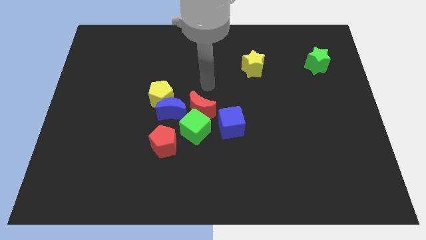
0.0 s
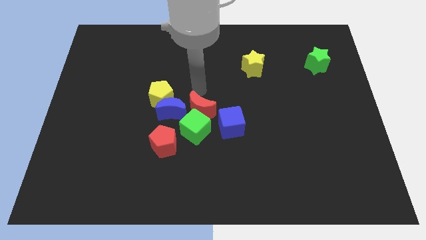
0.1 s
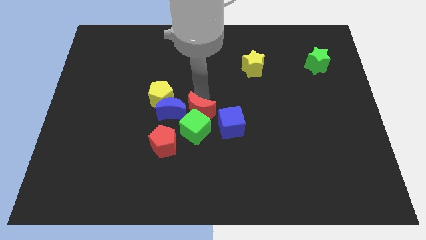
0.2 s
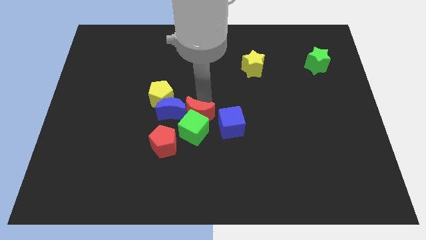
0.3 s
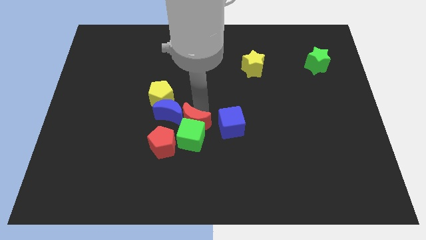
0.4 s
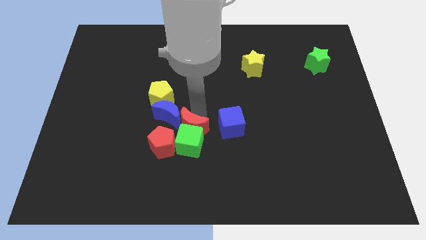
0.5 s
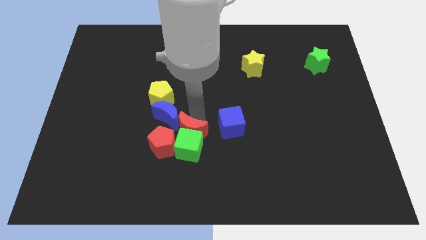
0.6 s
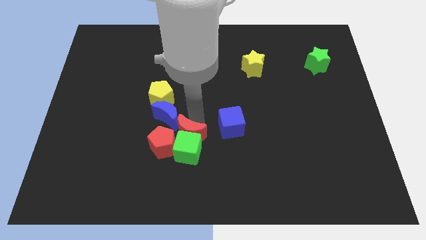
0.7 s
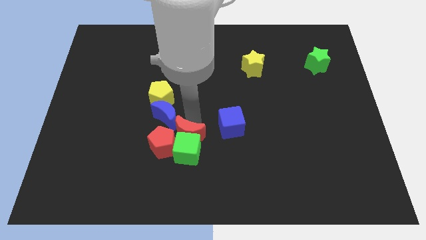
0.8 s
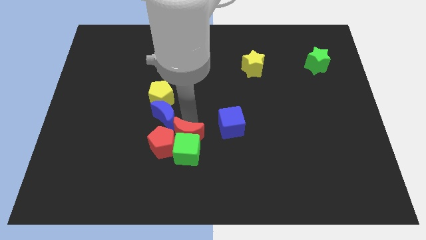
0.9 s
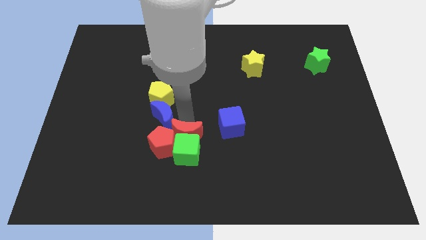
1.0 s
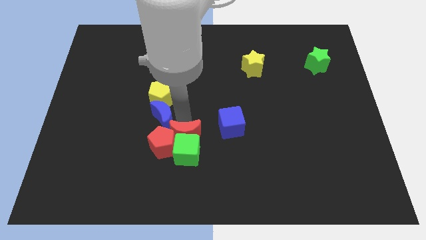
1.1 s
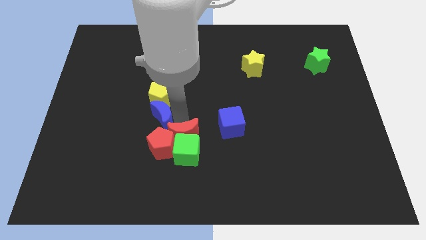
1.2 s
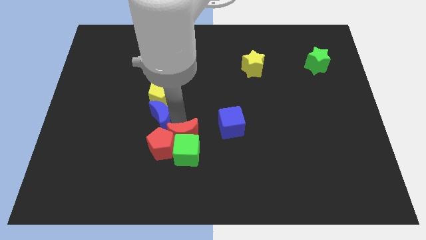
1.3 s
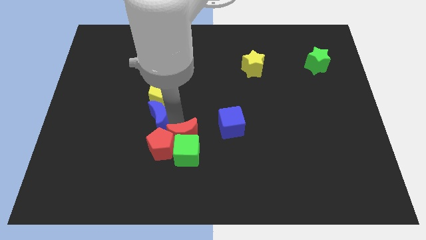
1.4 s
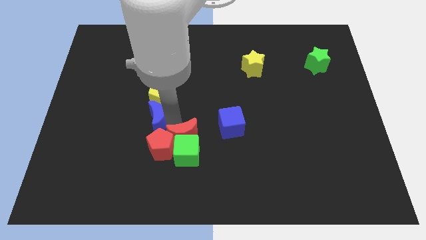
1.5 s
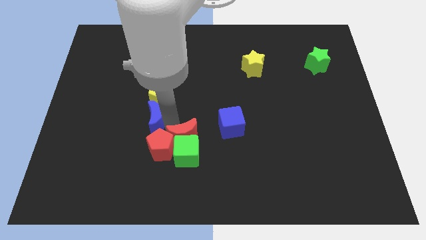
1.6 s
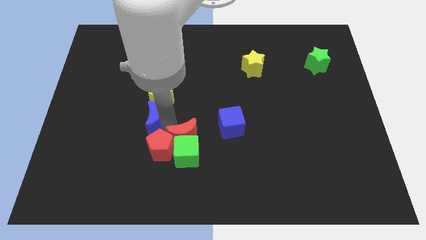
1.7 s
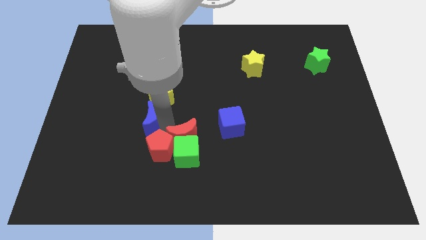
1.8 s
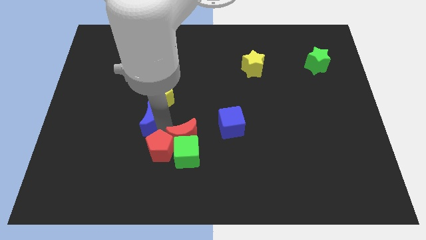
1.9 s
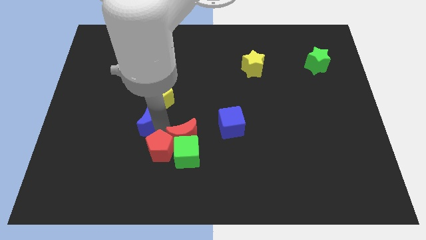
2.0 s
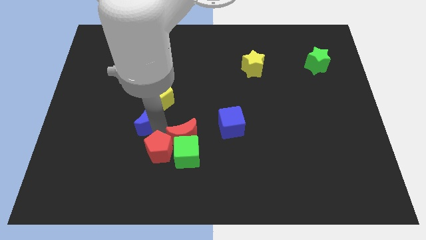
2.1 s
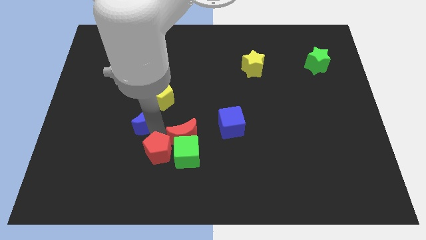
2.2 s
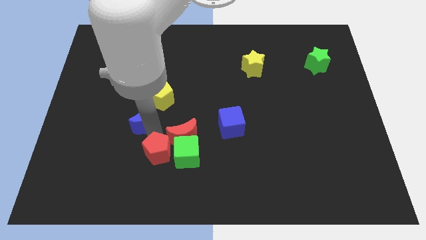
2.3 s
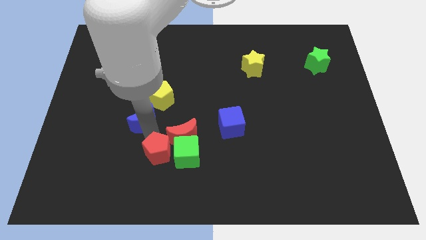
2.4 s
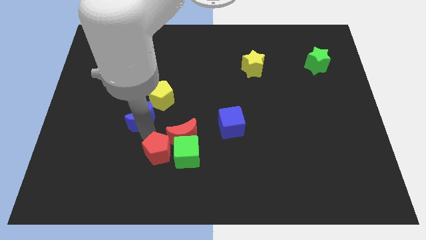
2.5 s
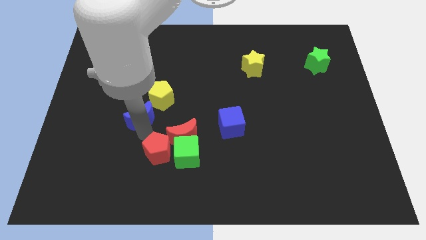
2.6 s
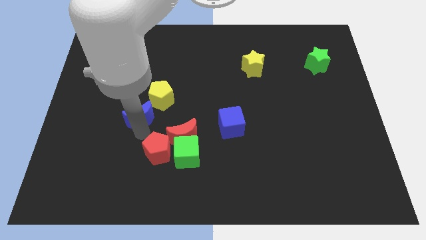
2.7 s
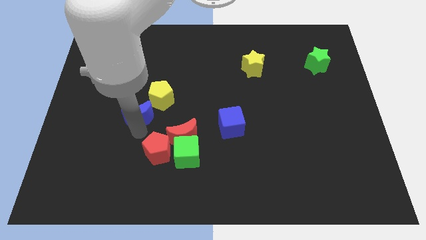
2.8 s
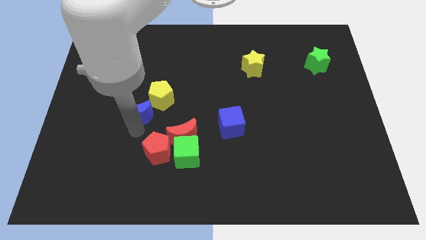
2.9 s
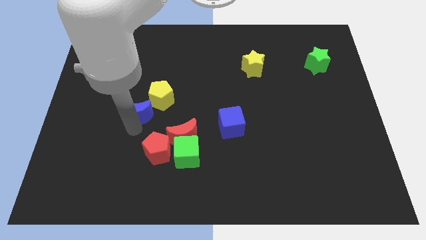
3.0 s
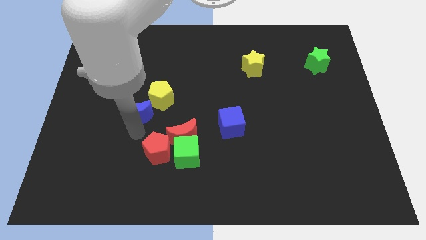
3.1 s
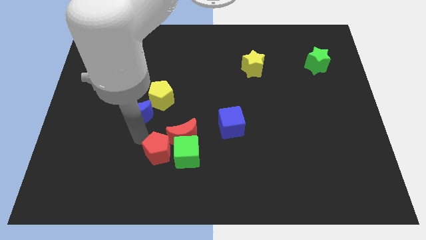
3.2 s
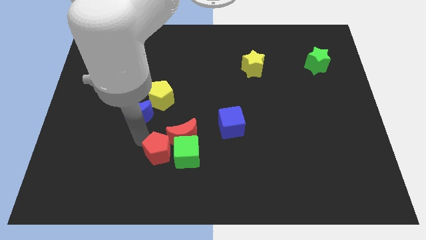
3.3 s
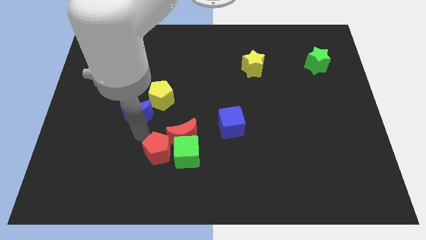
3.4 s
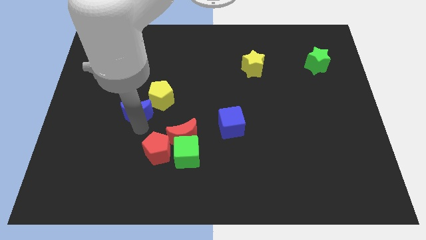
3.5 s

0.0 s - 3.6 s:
separate the blue moon from the group of blocks

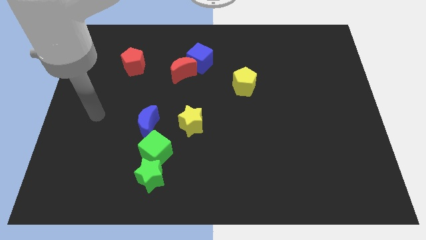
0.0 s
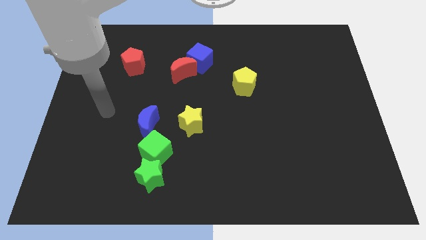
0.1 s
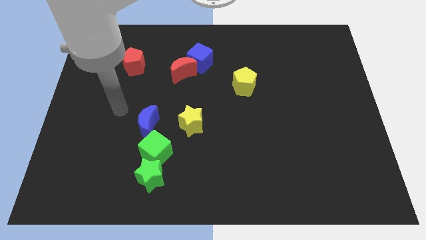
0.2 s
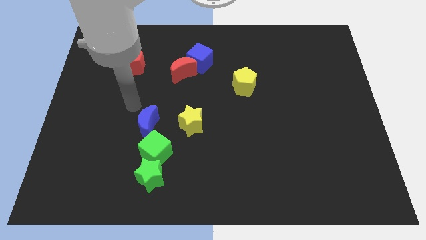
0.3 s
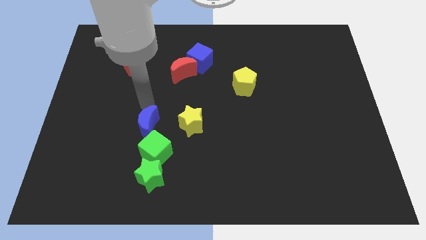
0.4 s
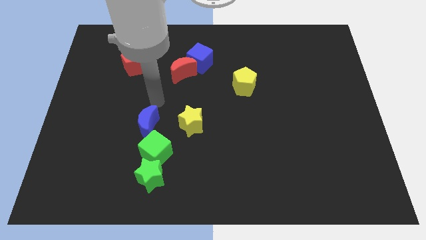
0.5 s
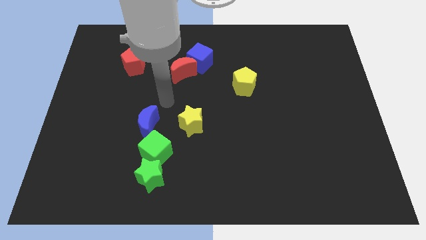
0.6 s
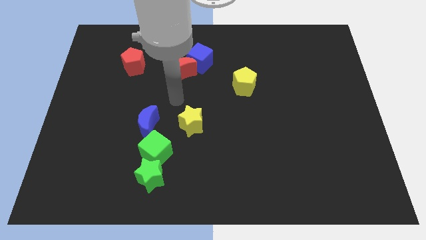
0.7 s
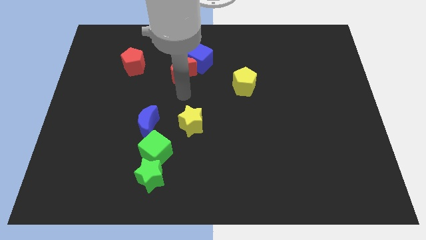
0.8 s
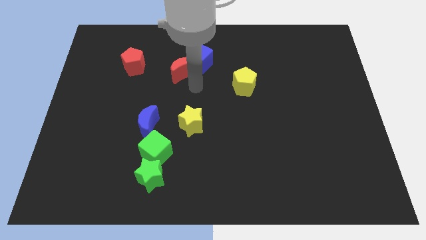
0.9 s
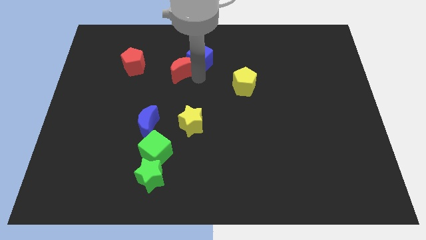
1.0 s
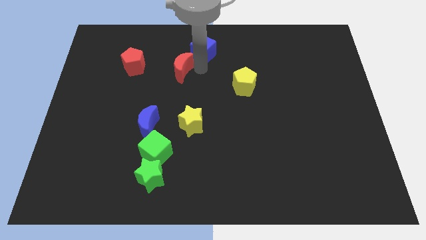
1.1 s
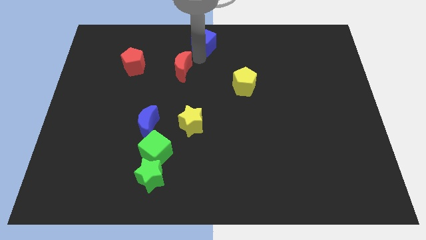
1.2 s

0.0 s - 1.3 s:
move the red moon away from the blue cube

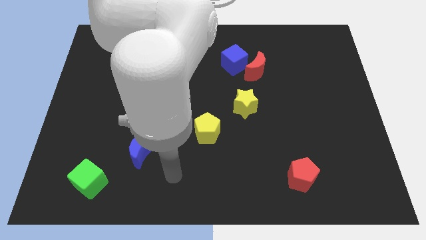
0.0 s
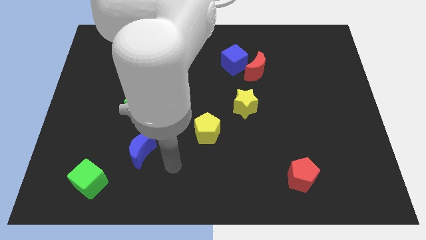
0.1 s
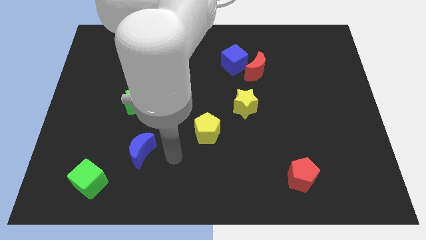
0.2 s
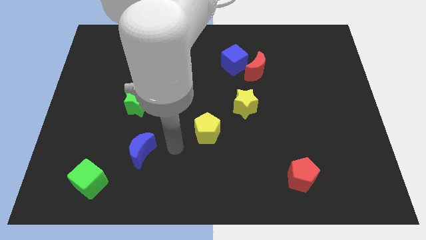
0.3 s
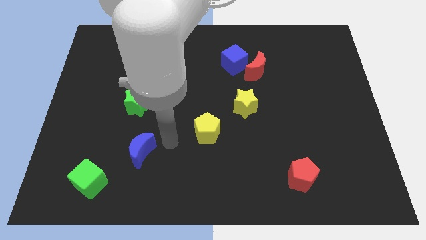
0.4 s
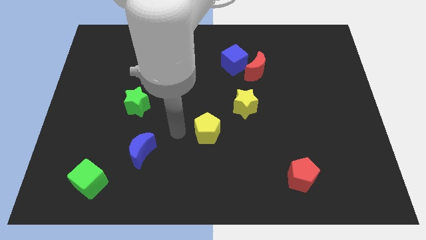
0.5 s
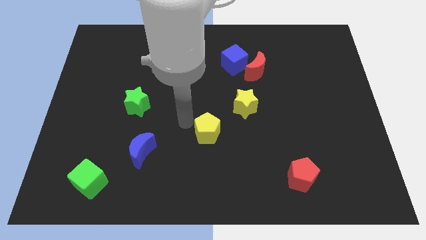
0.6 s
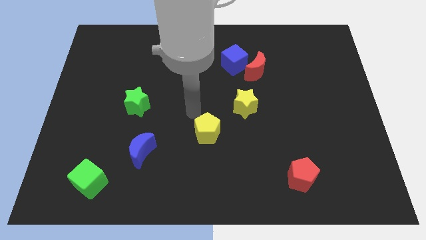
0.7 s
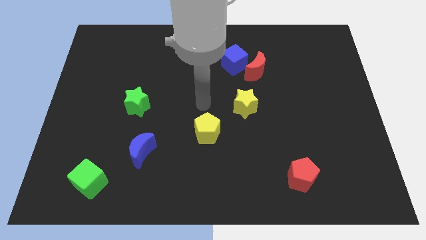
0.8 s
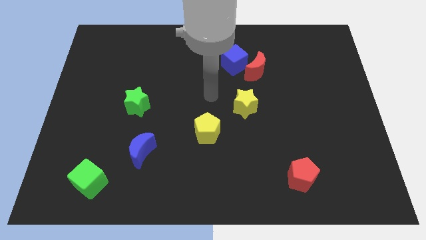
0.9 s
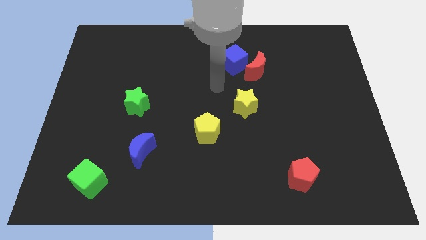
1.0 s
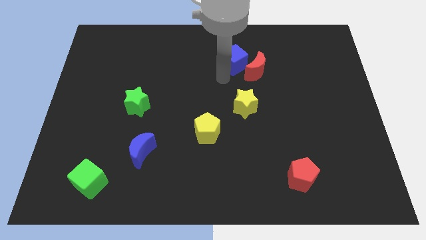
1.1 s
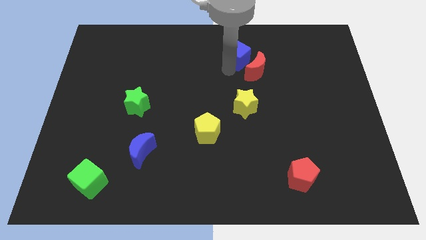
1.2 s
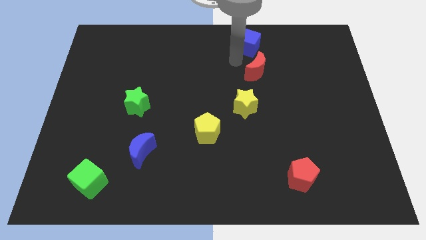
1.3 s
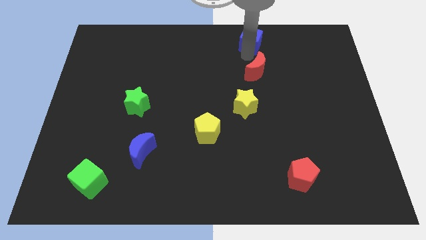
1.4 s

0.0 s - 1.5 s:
separate the red moon from the blue cube

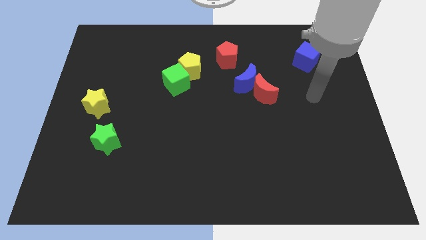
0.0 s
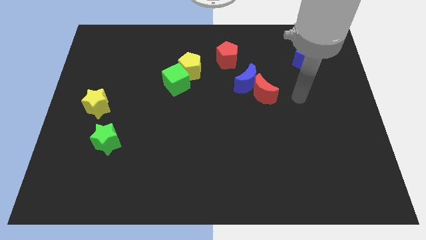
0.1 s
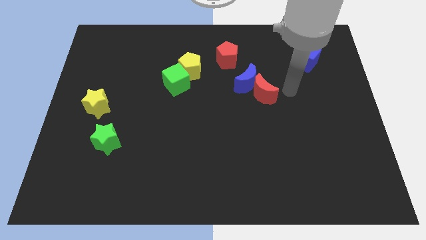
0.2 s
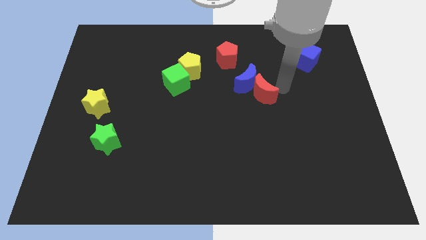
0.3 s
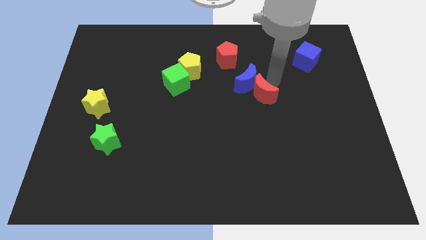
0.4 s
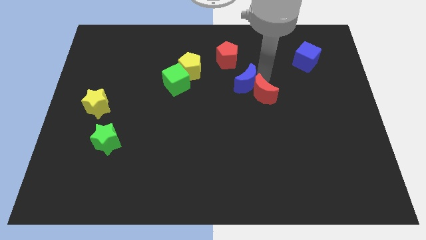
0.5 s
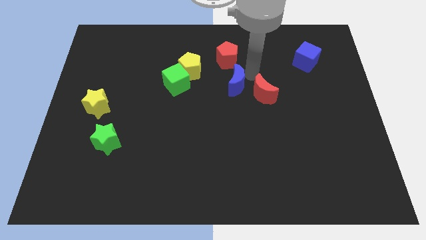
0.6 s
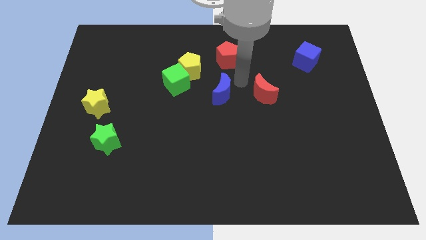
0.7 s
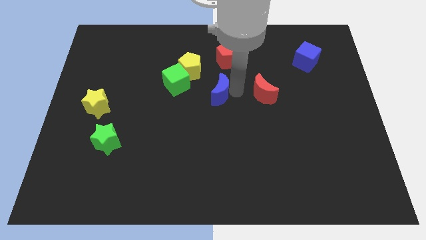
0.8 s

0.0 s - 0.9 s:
move the red moon away from the blue moon

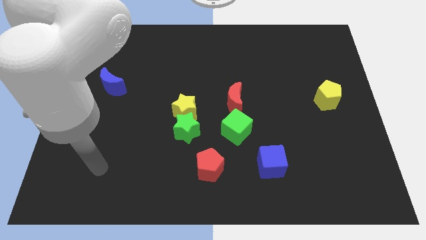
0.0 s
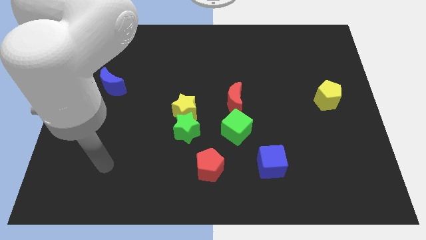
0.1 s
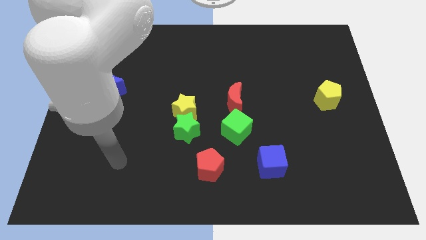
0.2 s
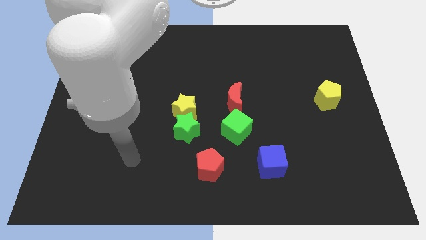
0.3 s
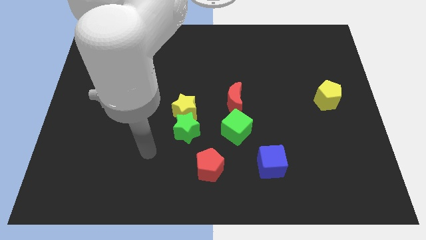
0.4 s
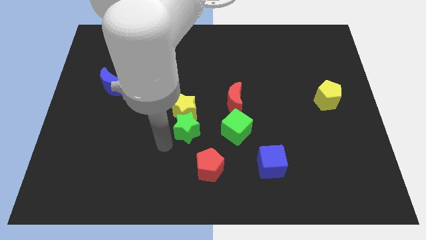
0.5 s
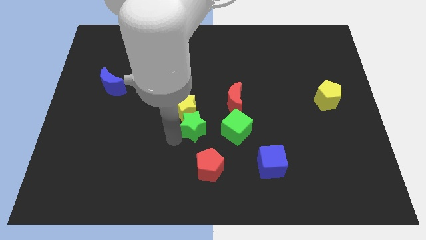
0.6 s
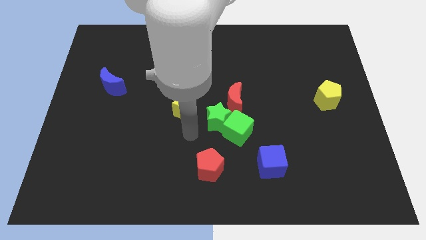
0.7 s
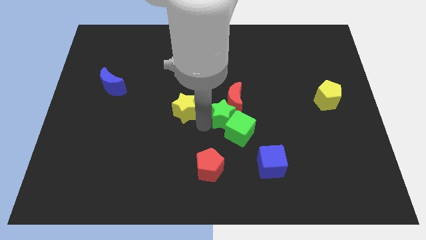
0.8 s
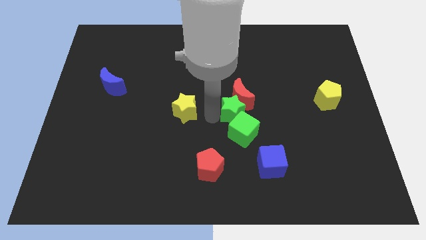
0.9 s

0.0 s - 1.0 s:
pull the yellow star apart from the green star

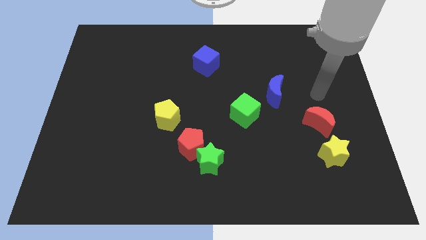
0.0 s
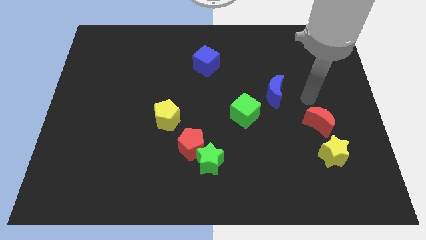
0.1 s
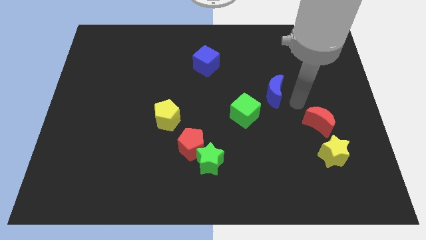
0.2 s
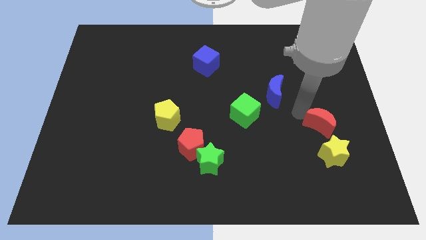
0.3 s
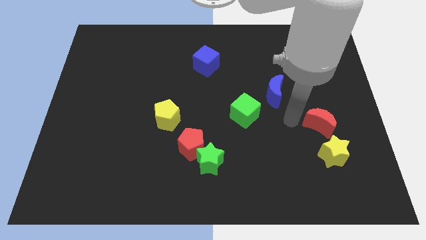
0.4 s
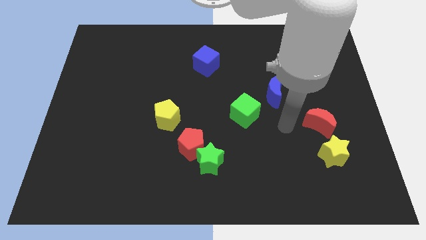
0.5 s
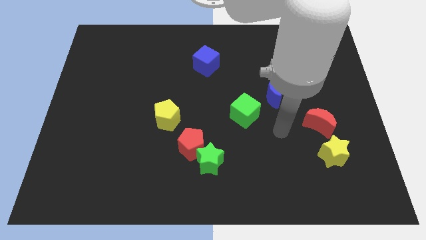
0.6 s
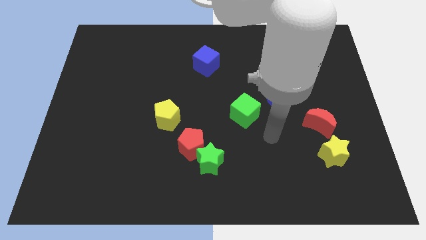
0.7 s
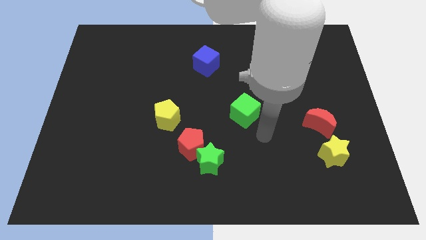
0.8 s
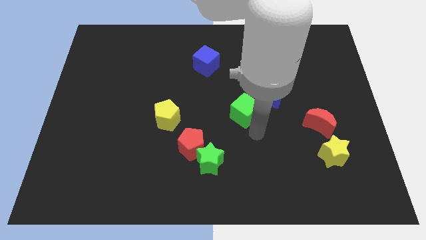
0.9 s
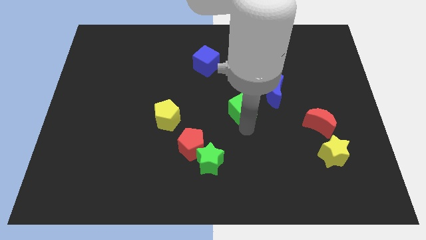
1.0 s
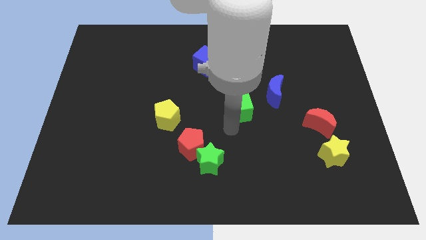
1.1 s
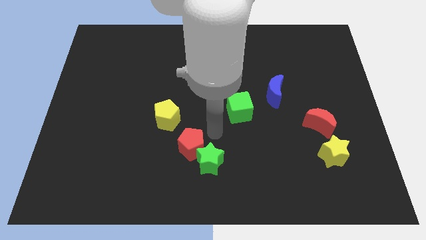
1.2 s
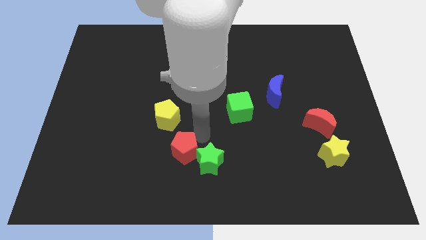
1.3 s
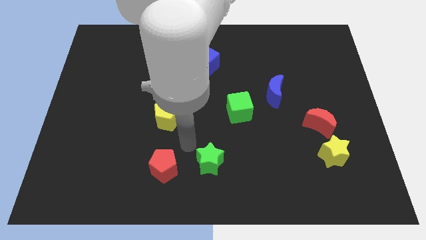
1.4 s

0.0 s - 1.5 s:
move the green star away from the red pentagon
